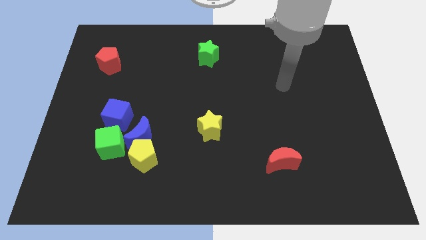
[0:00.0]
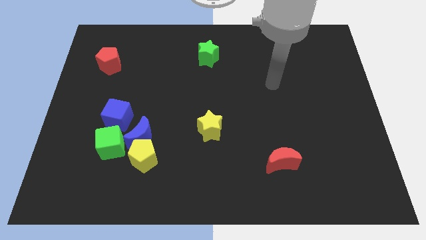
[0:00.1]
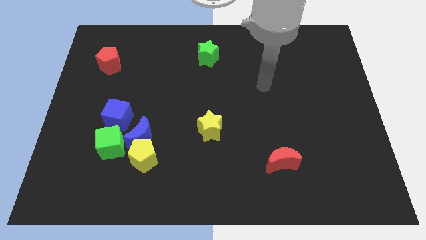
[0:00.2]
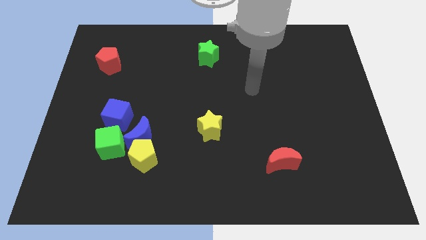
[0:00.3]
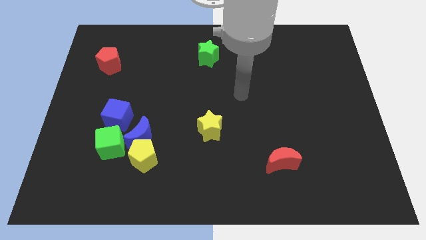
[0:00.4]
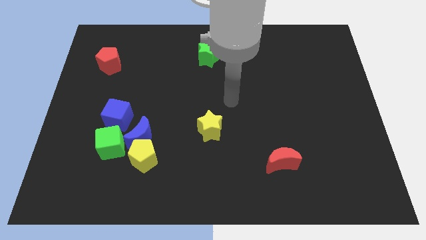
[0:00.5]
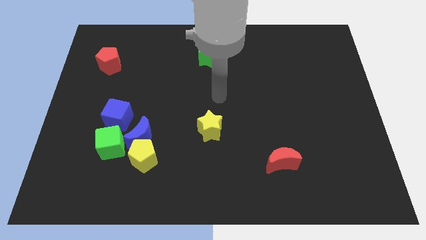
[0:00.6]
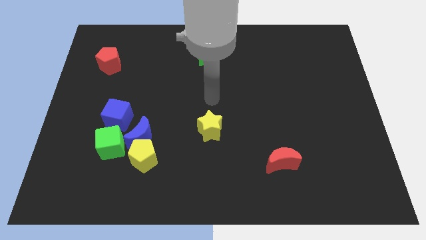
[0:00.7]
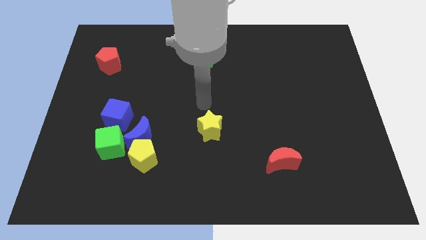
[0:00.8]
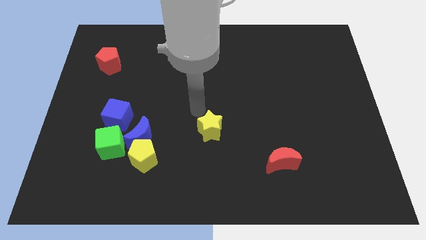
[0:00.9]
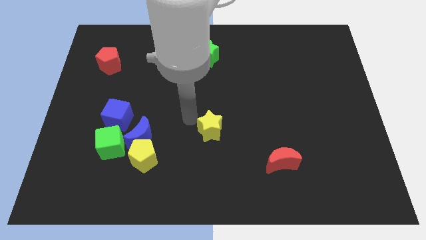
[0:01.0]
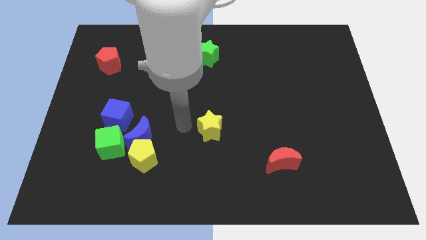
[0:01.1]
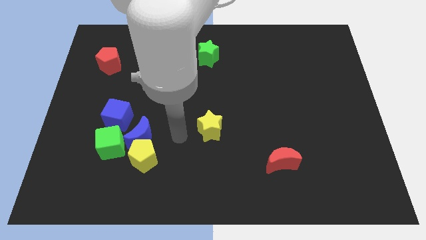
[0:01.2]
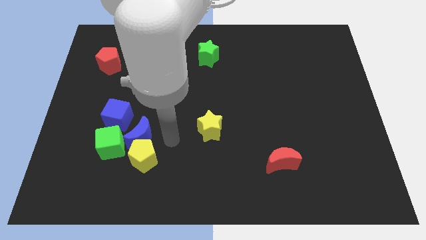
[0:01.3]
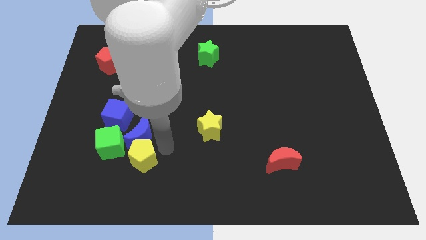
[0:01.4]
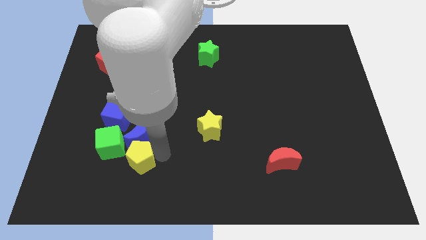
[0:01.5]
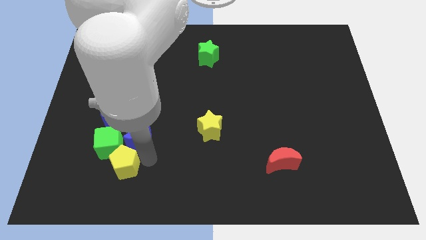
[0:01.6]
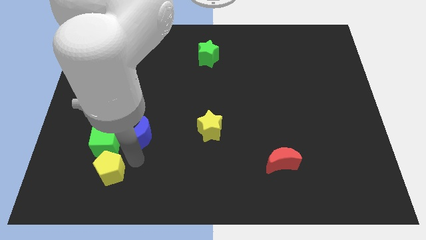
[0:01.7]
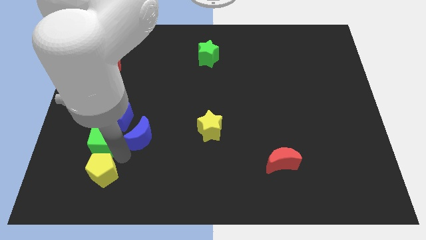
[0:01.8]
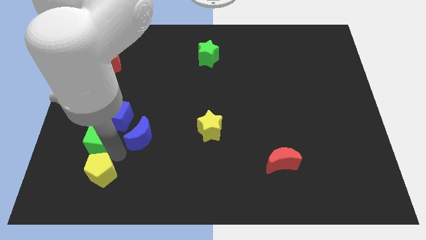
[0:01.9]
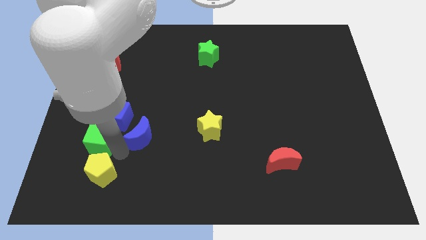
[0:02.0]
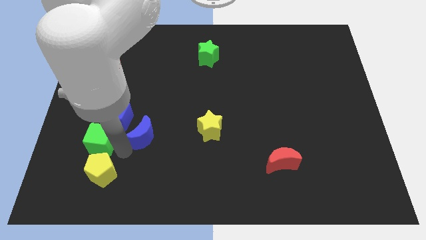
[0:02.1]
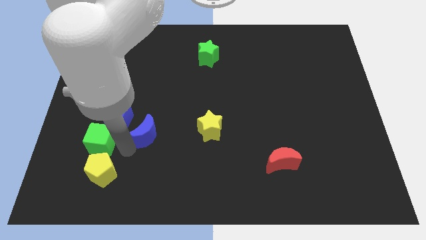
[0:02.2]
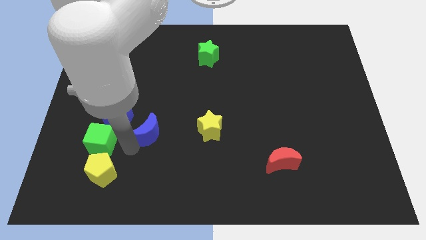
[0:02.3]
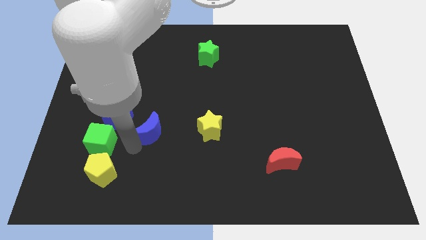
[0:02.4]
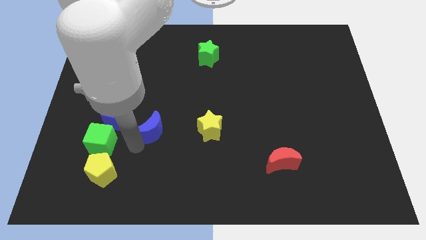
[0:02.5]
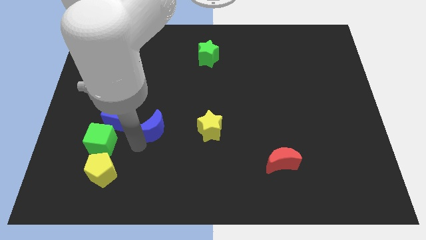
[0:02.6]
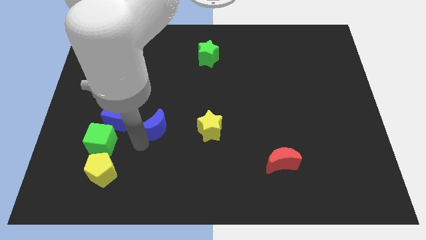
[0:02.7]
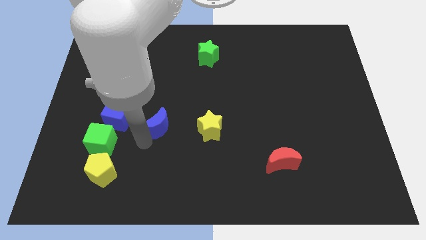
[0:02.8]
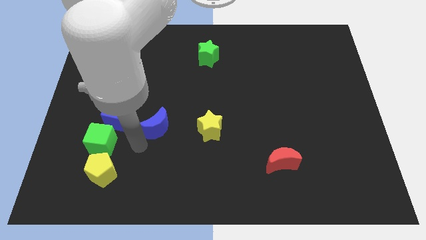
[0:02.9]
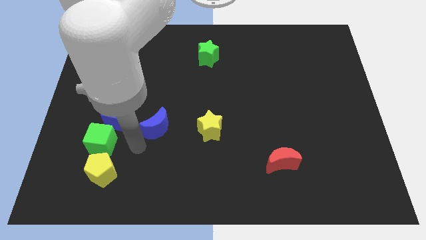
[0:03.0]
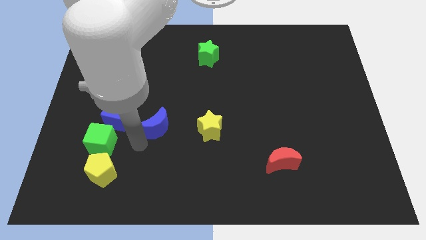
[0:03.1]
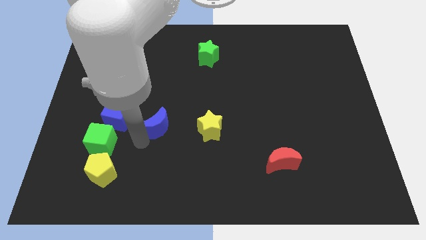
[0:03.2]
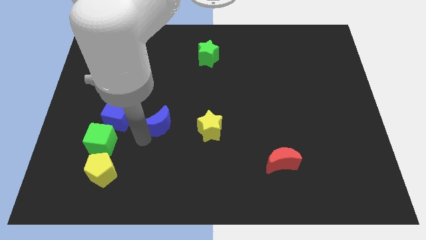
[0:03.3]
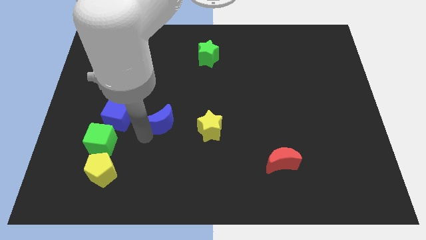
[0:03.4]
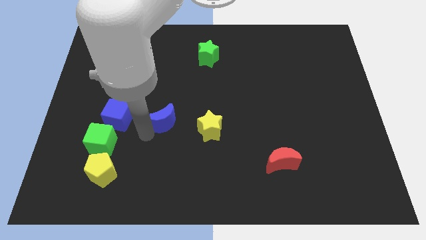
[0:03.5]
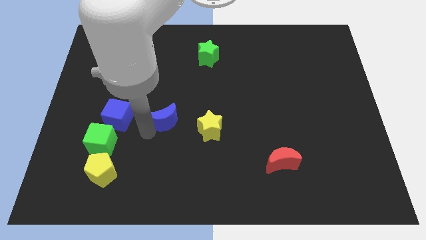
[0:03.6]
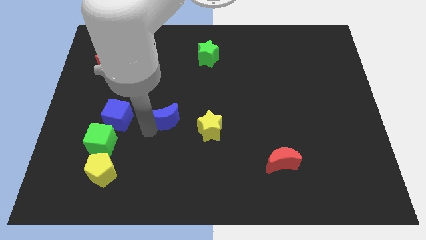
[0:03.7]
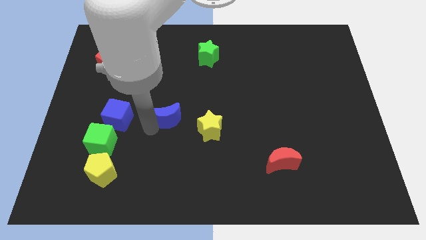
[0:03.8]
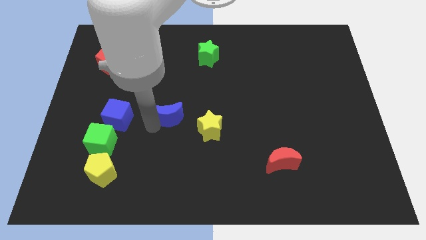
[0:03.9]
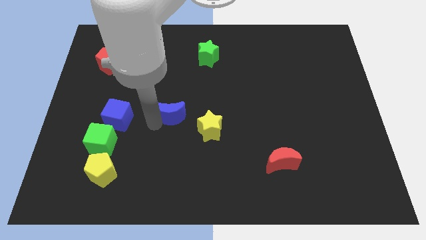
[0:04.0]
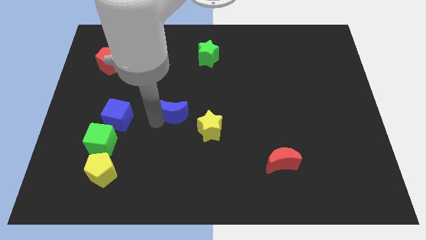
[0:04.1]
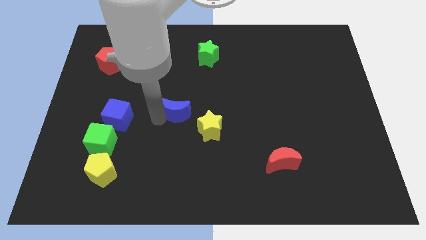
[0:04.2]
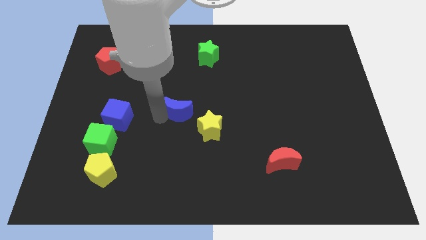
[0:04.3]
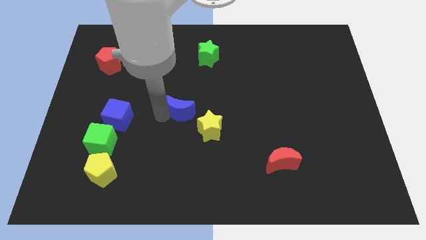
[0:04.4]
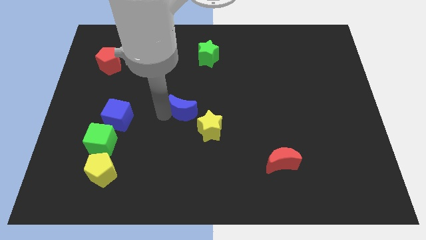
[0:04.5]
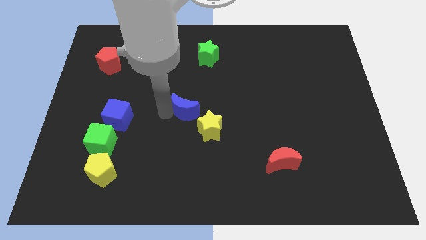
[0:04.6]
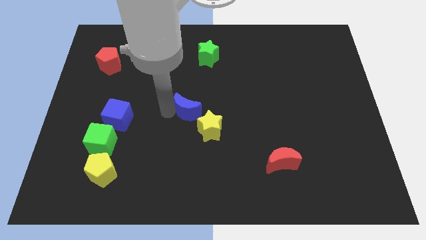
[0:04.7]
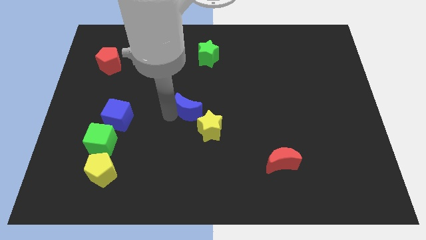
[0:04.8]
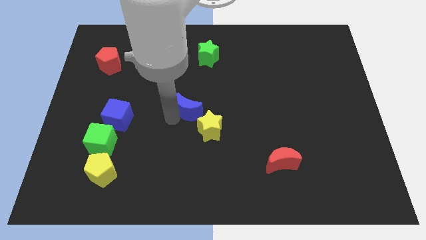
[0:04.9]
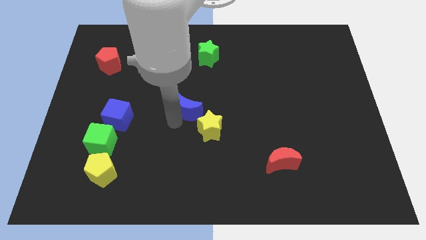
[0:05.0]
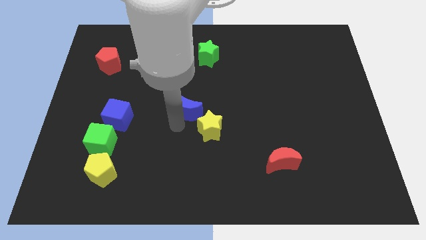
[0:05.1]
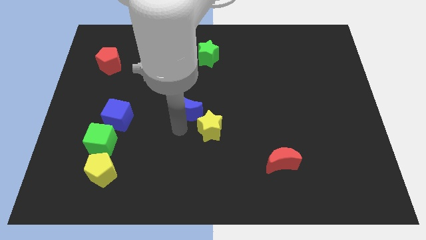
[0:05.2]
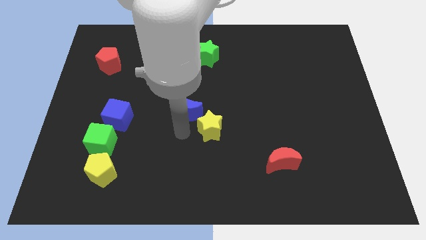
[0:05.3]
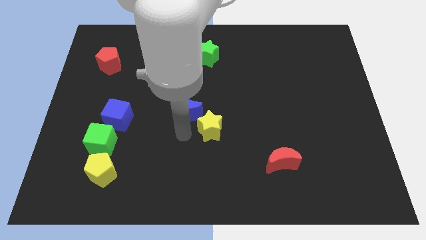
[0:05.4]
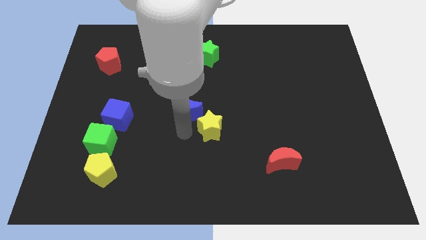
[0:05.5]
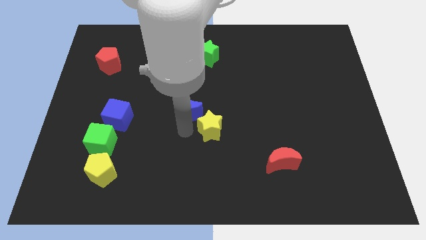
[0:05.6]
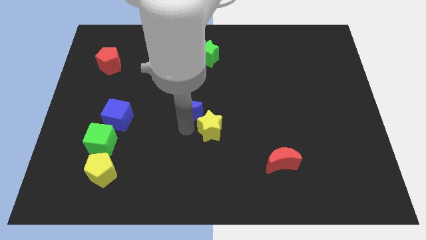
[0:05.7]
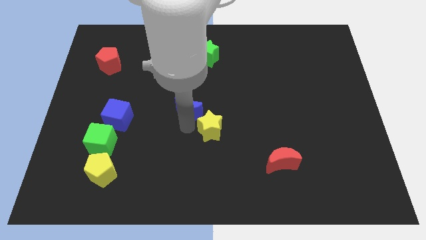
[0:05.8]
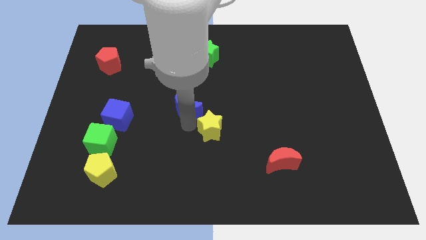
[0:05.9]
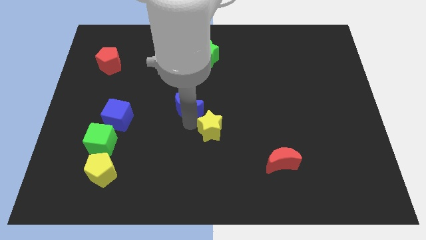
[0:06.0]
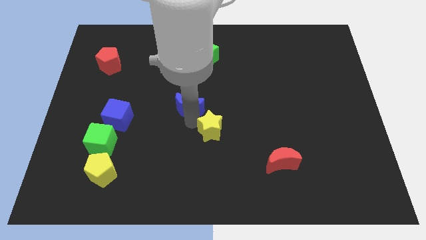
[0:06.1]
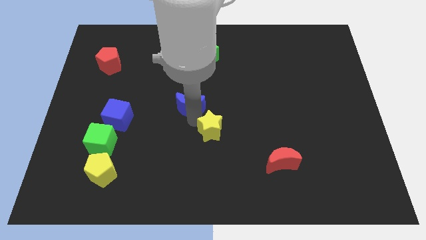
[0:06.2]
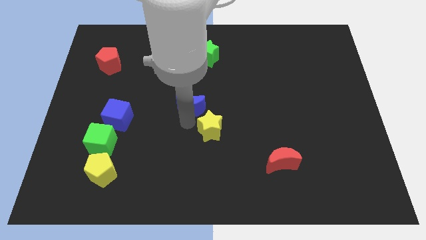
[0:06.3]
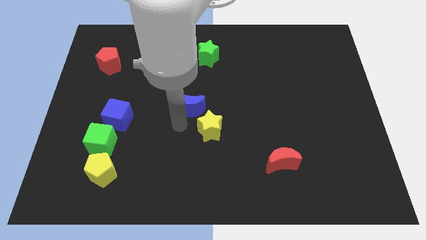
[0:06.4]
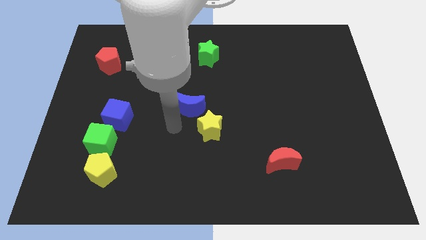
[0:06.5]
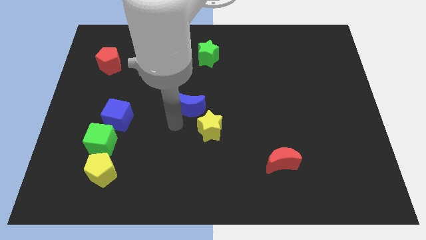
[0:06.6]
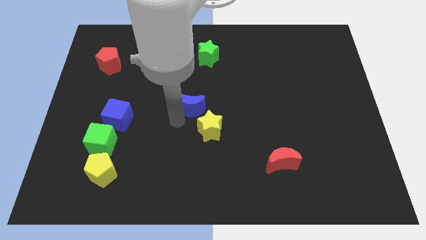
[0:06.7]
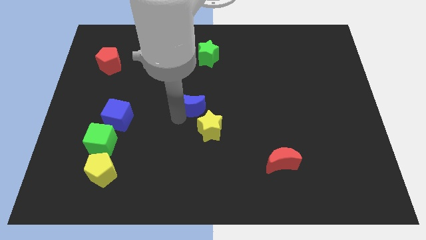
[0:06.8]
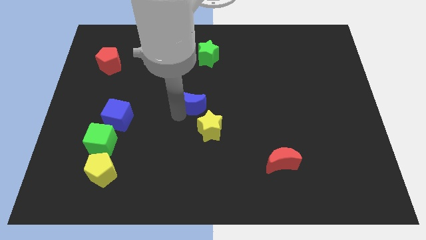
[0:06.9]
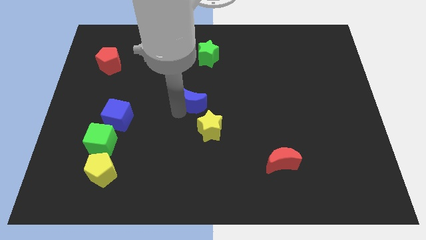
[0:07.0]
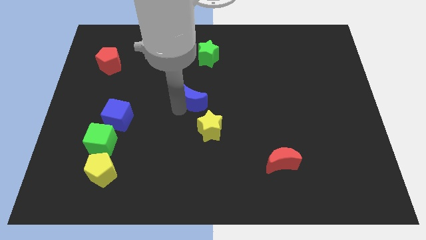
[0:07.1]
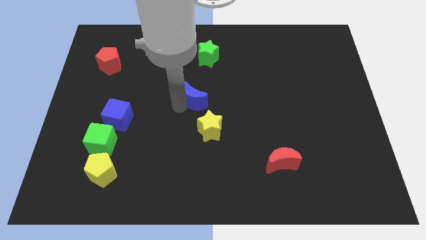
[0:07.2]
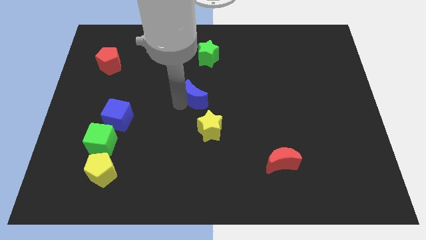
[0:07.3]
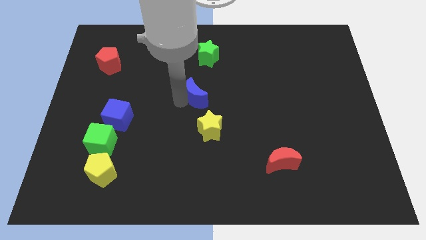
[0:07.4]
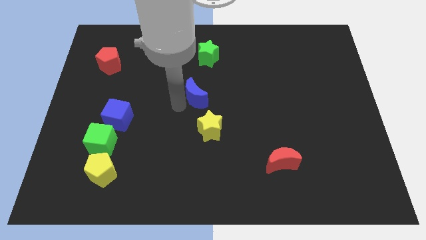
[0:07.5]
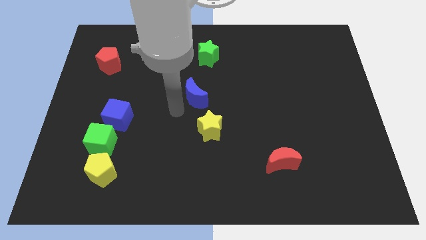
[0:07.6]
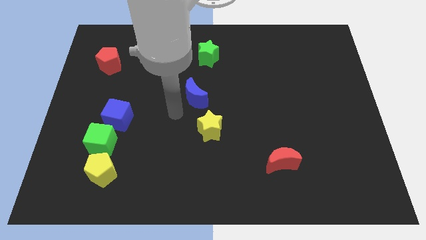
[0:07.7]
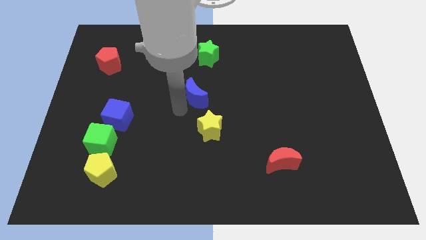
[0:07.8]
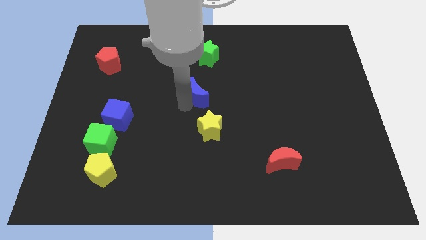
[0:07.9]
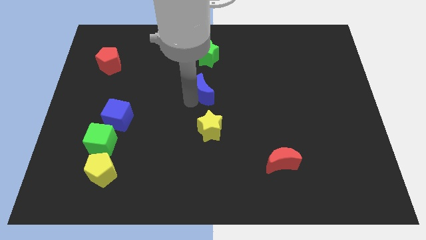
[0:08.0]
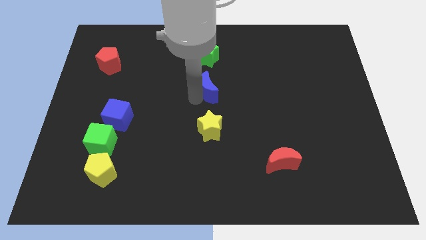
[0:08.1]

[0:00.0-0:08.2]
move the blue moon up and then to the right
